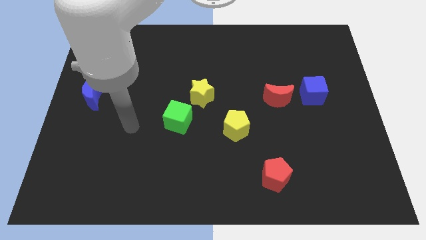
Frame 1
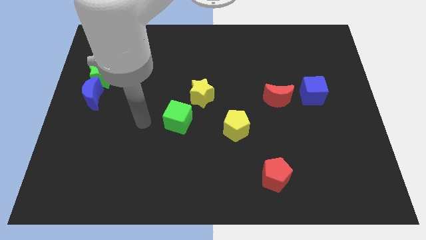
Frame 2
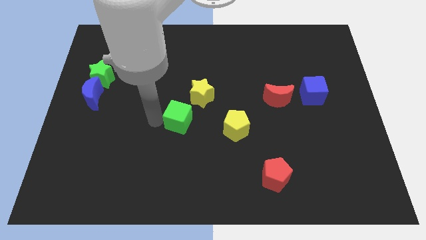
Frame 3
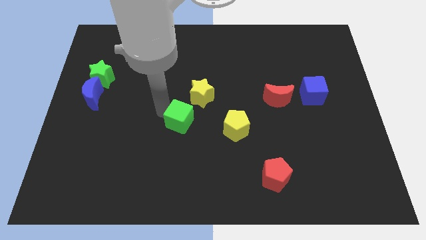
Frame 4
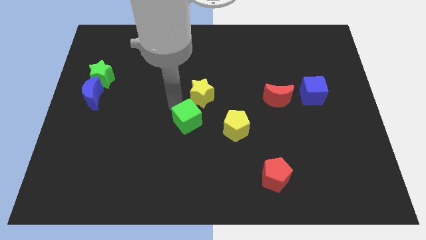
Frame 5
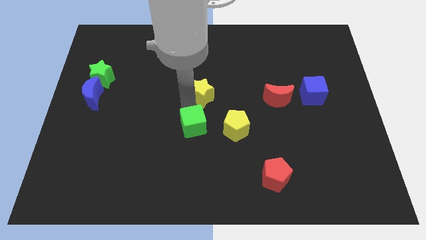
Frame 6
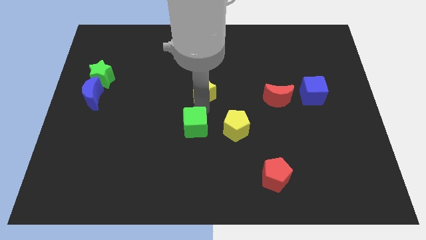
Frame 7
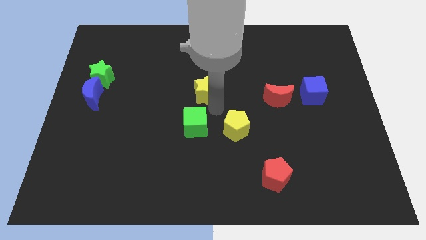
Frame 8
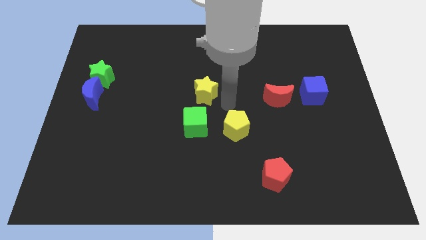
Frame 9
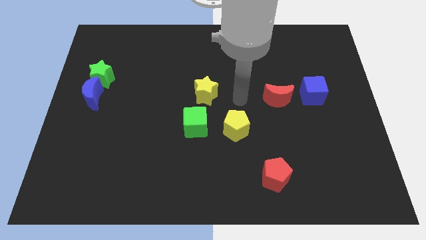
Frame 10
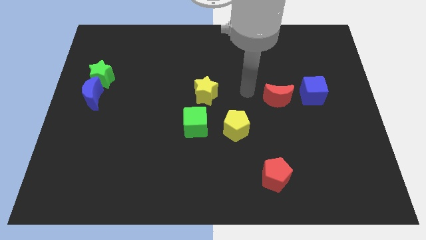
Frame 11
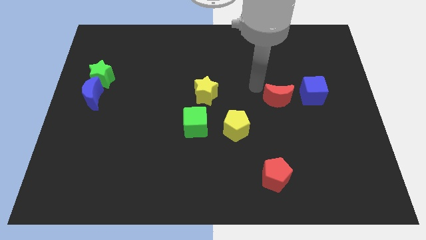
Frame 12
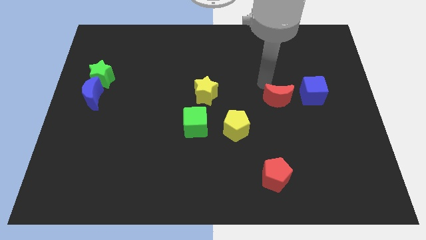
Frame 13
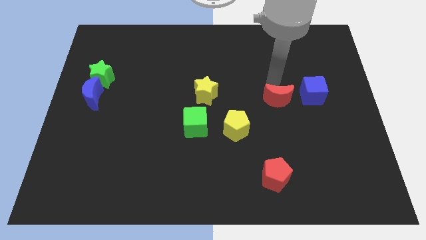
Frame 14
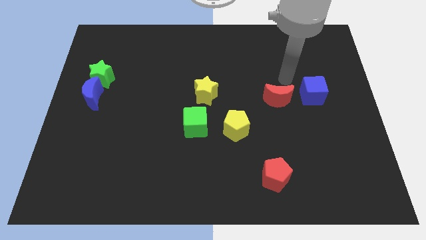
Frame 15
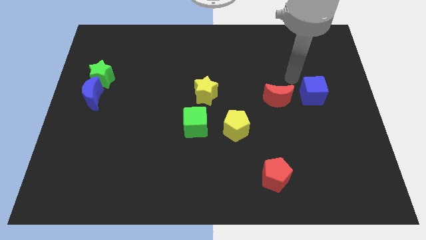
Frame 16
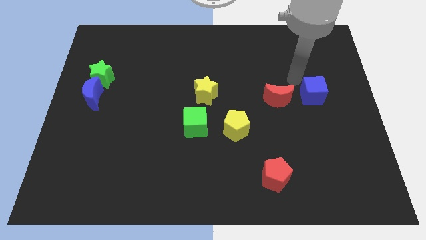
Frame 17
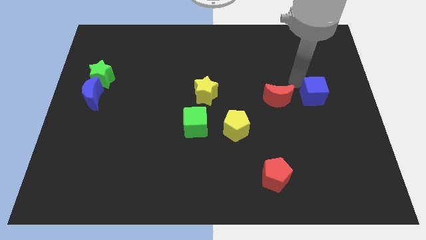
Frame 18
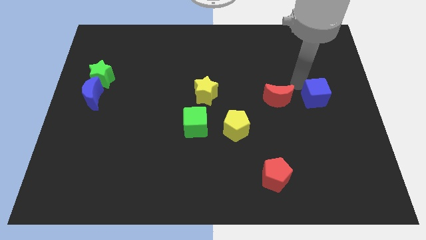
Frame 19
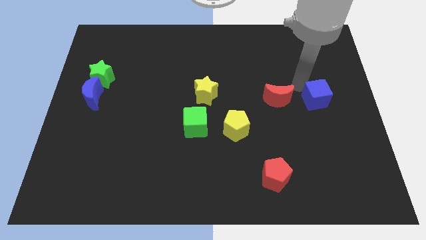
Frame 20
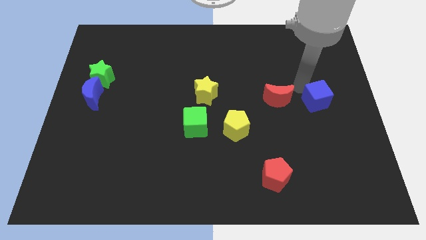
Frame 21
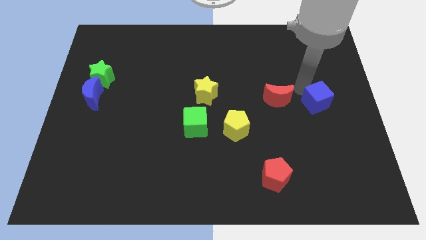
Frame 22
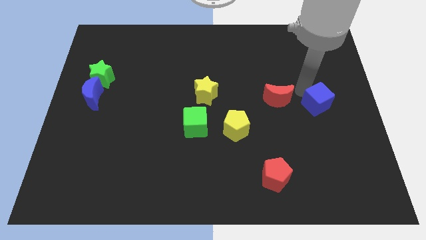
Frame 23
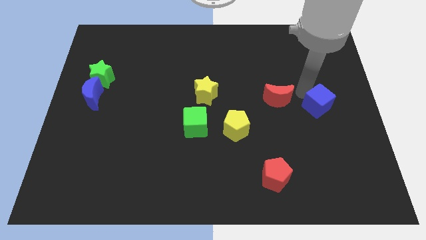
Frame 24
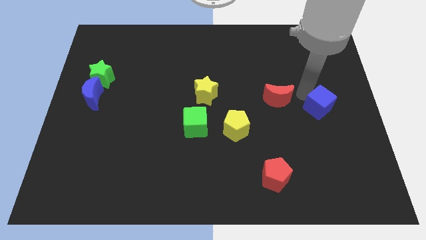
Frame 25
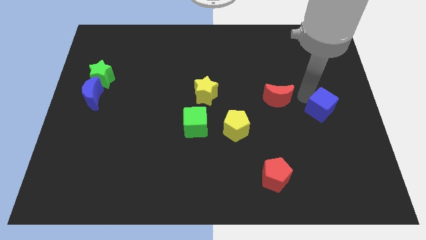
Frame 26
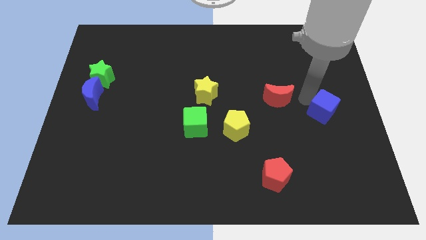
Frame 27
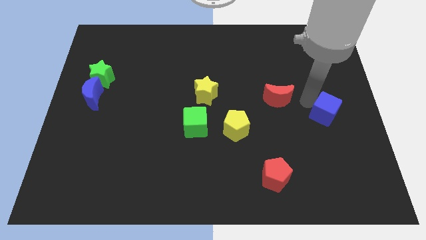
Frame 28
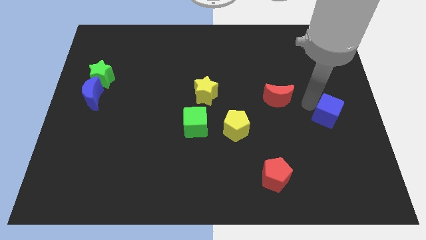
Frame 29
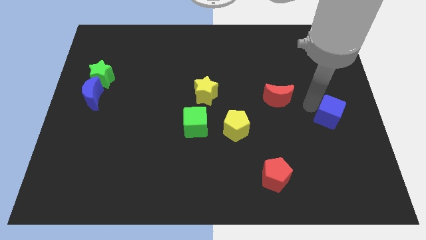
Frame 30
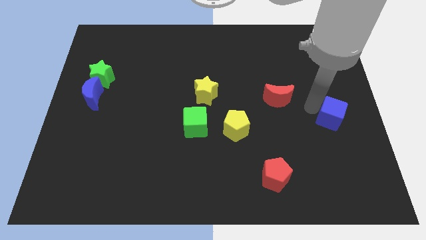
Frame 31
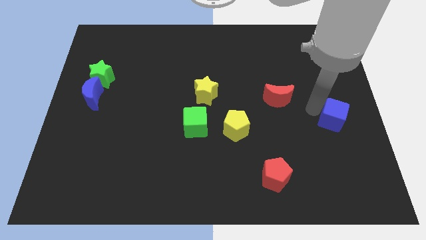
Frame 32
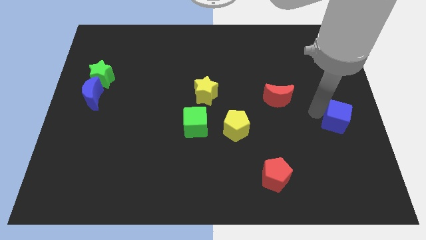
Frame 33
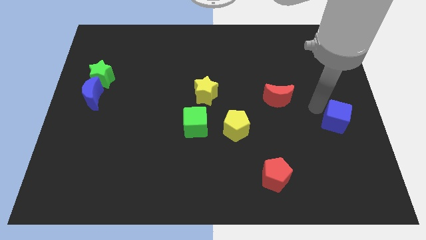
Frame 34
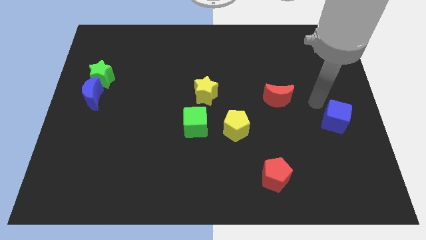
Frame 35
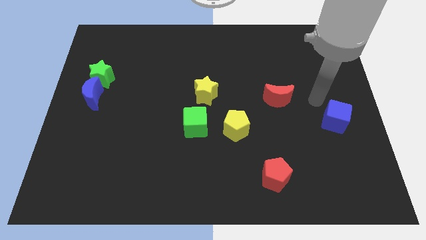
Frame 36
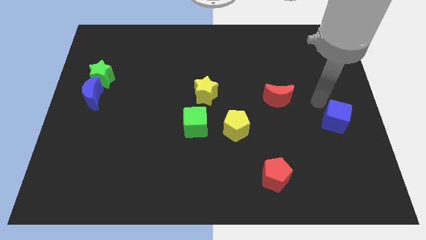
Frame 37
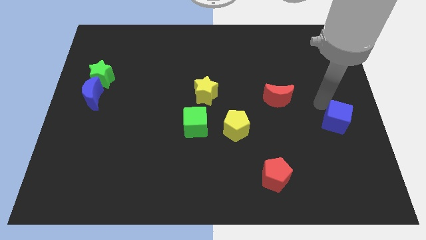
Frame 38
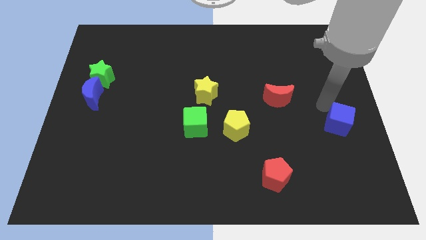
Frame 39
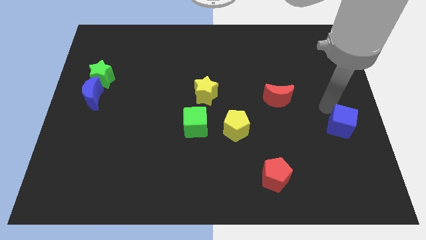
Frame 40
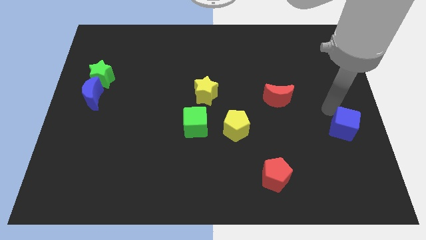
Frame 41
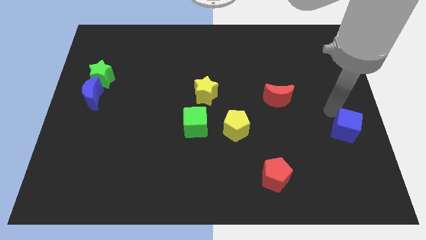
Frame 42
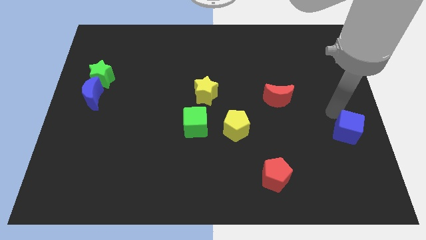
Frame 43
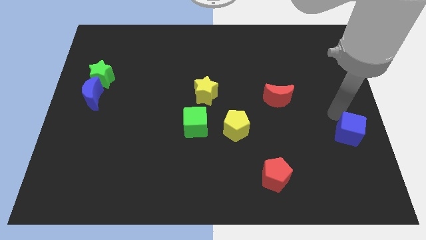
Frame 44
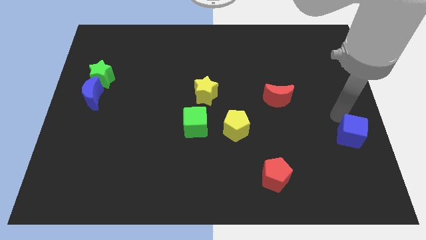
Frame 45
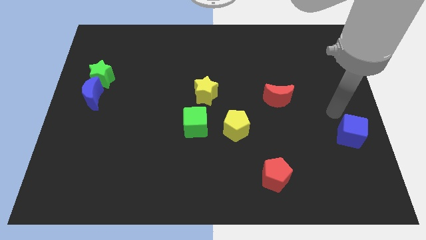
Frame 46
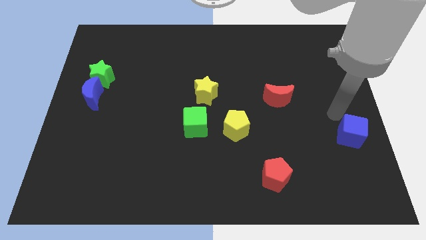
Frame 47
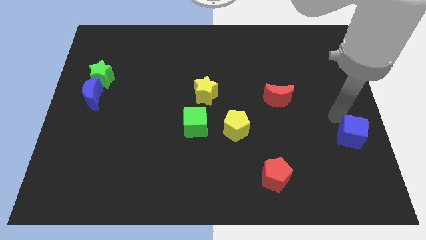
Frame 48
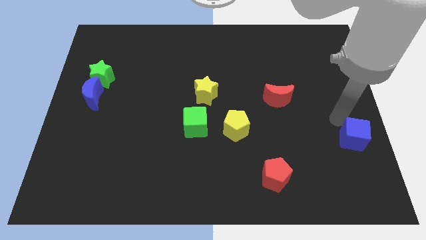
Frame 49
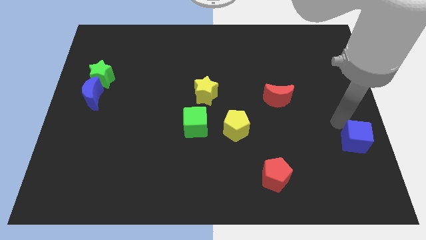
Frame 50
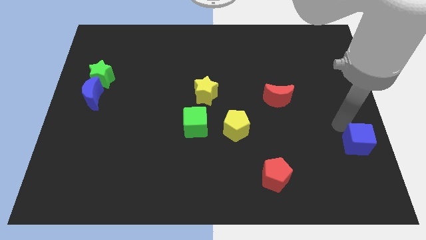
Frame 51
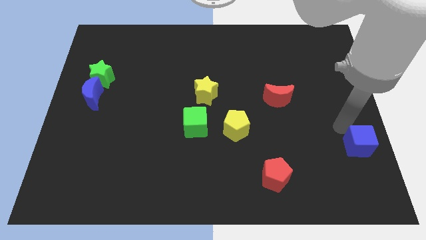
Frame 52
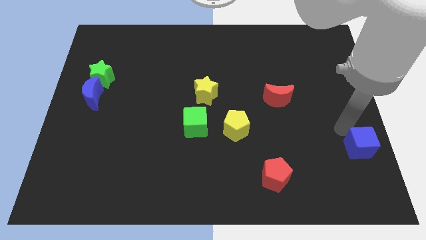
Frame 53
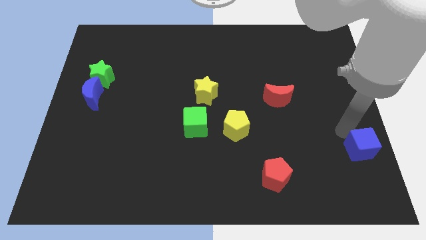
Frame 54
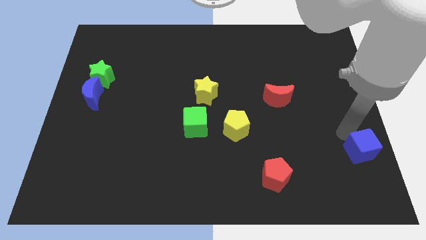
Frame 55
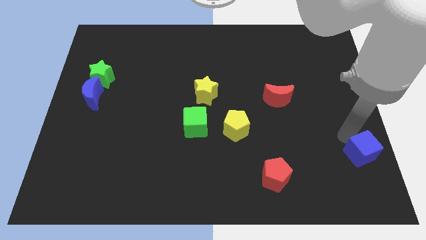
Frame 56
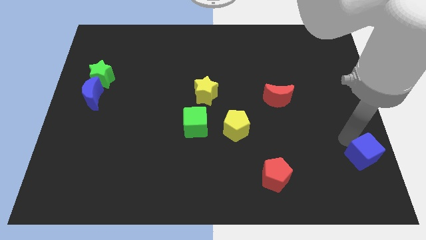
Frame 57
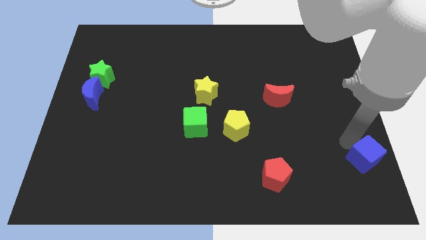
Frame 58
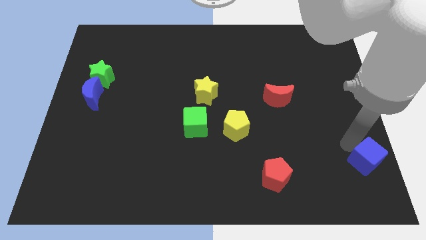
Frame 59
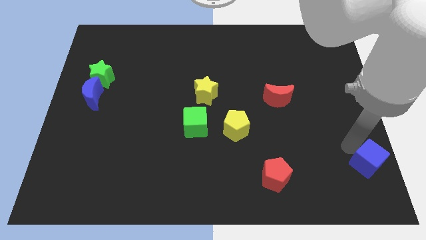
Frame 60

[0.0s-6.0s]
put the blue cube to the lower right corner
